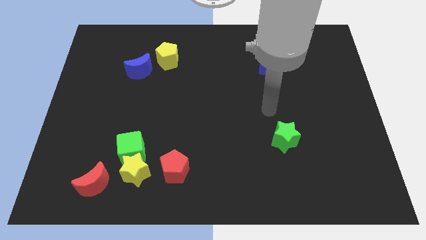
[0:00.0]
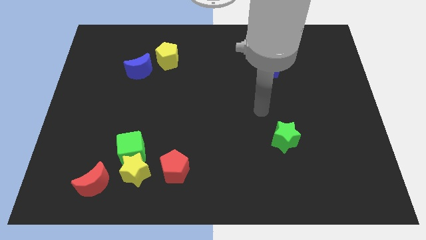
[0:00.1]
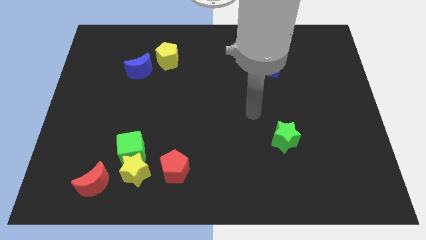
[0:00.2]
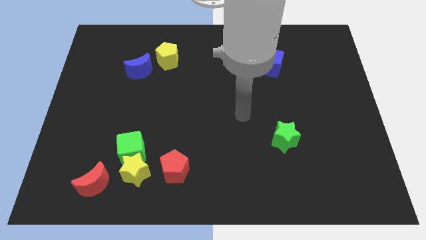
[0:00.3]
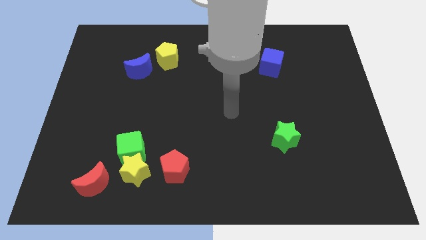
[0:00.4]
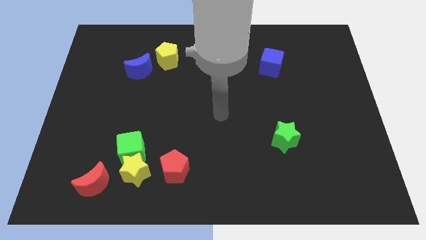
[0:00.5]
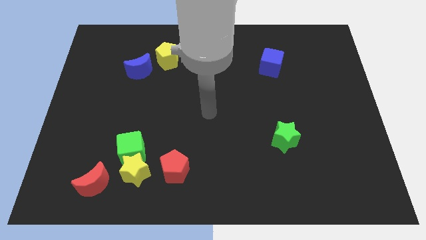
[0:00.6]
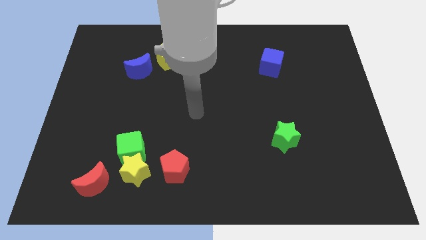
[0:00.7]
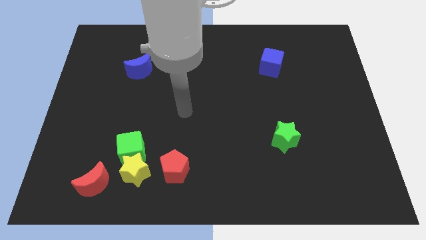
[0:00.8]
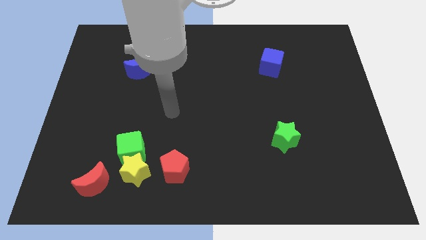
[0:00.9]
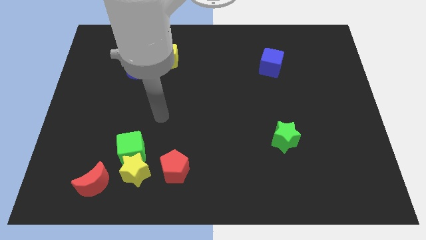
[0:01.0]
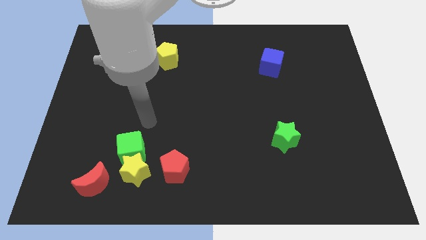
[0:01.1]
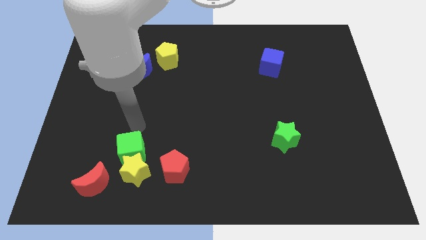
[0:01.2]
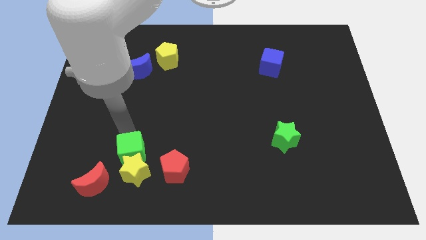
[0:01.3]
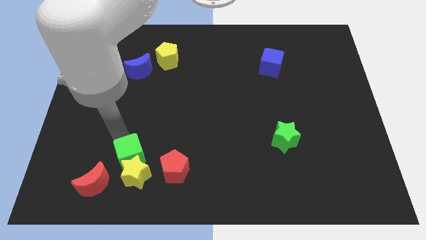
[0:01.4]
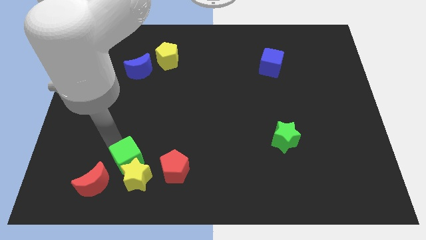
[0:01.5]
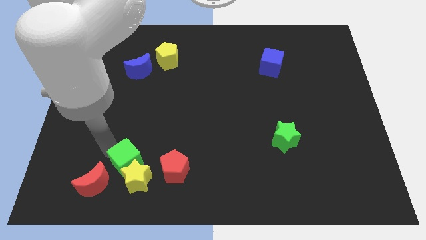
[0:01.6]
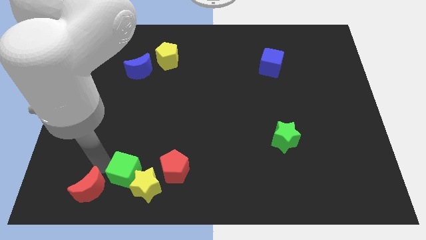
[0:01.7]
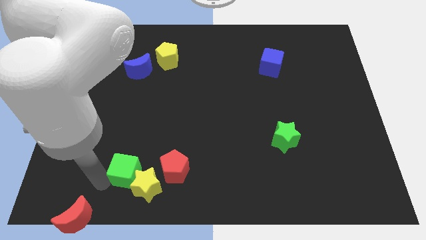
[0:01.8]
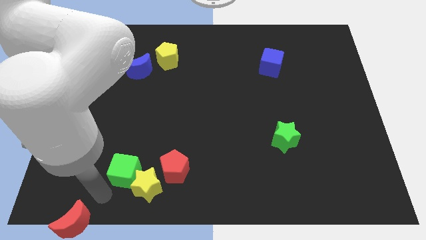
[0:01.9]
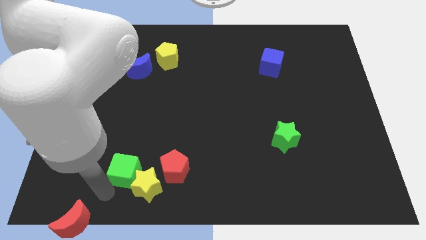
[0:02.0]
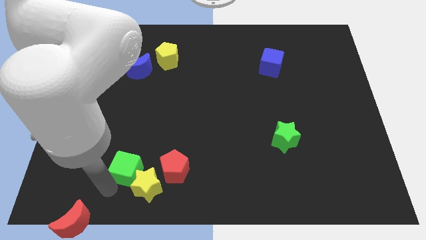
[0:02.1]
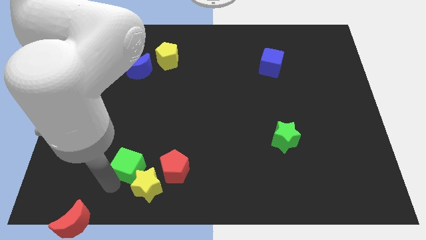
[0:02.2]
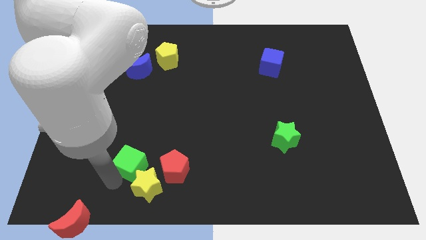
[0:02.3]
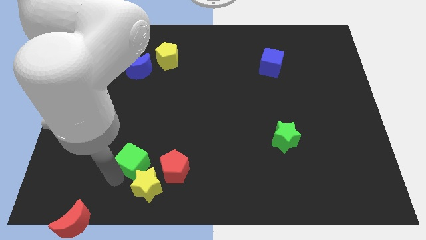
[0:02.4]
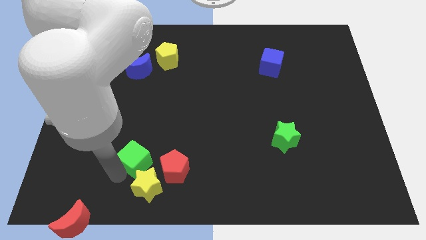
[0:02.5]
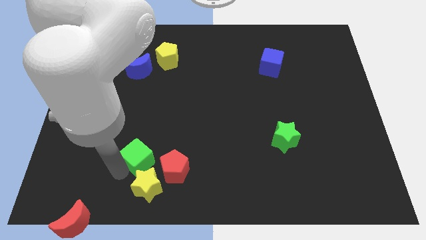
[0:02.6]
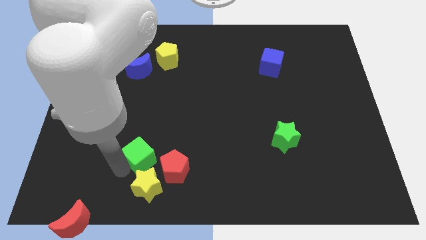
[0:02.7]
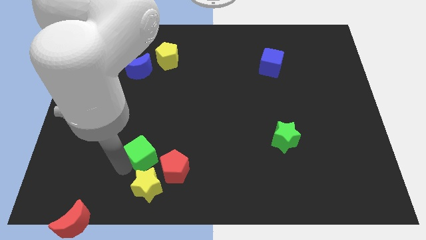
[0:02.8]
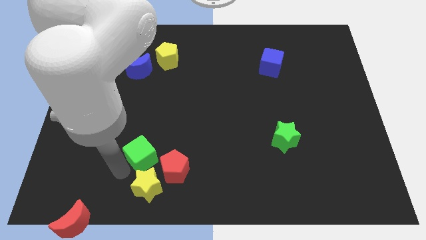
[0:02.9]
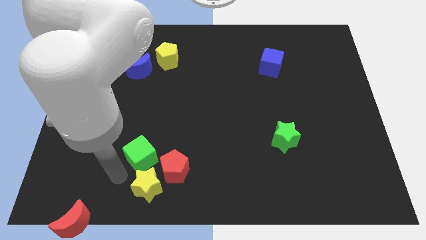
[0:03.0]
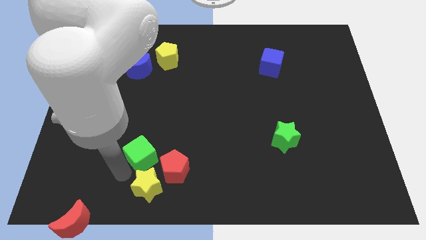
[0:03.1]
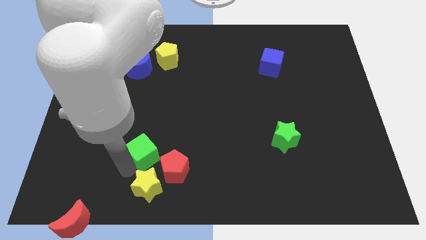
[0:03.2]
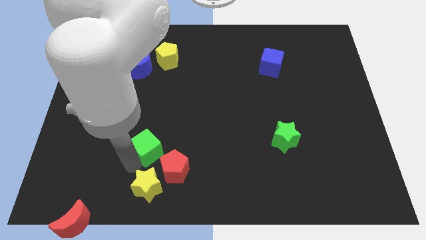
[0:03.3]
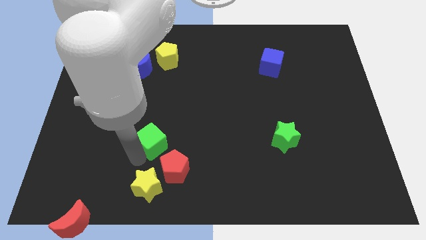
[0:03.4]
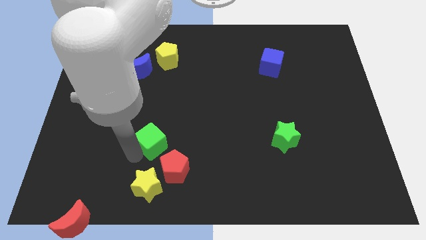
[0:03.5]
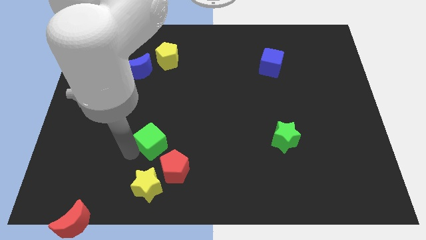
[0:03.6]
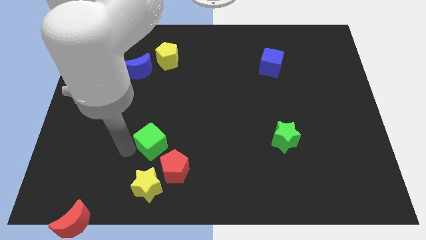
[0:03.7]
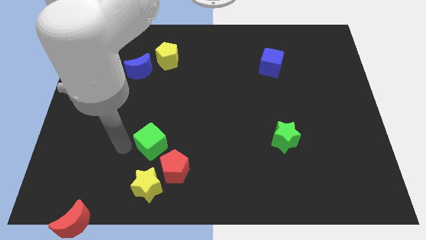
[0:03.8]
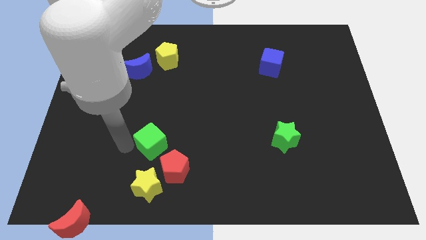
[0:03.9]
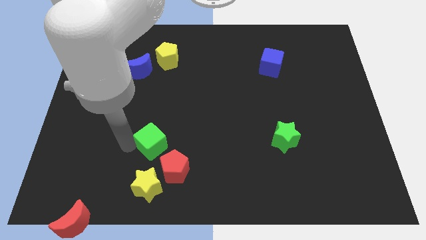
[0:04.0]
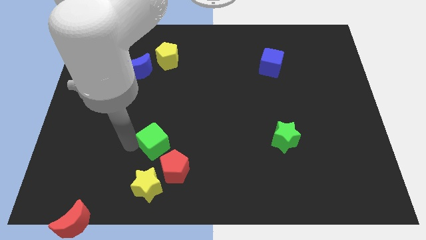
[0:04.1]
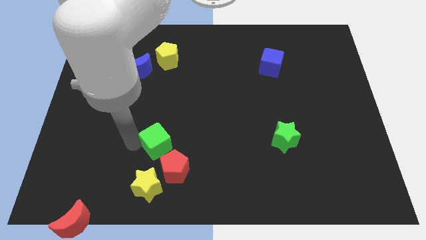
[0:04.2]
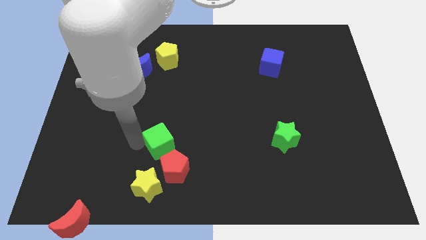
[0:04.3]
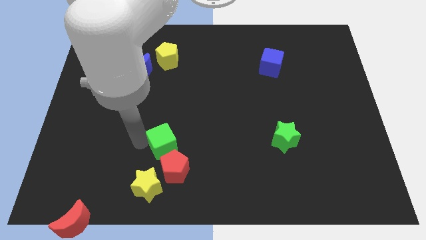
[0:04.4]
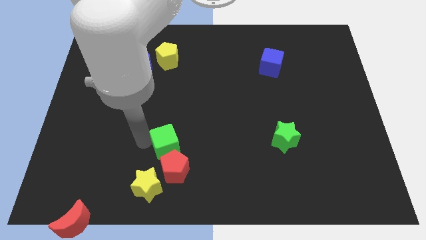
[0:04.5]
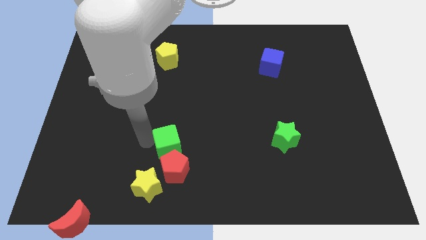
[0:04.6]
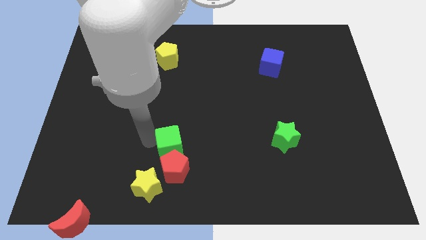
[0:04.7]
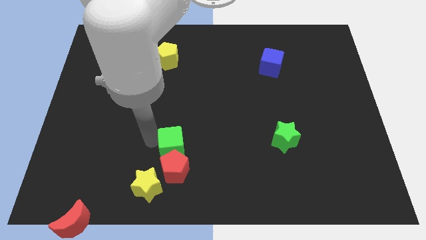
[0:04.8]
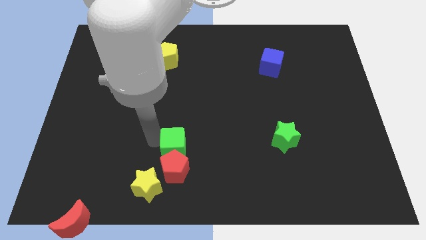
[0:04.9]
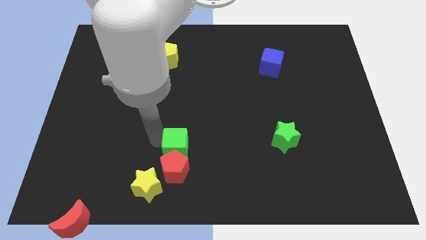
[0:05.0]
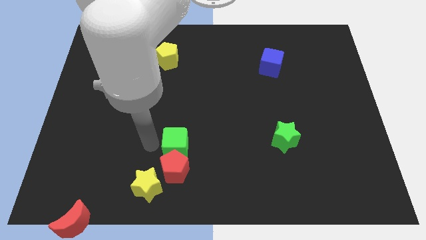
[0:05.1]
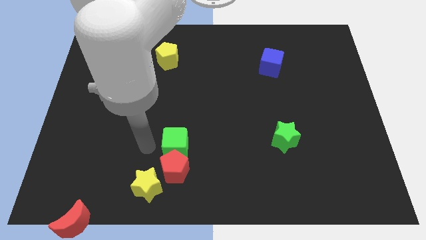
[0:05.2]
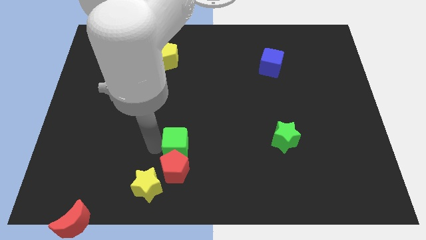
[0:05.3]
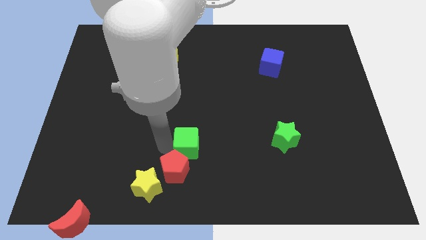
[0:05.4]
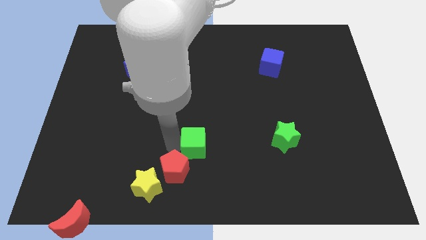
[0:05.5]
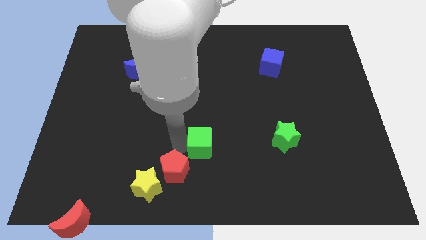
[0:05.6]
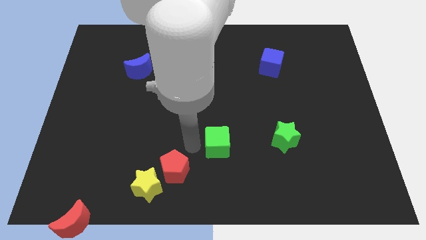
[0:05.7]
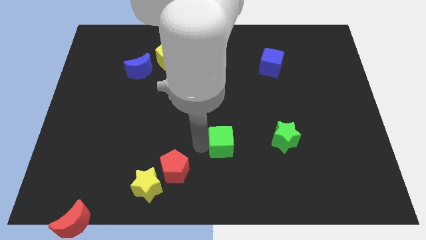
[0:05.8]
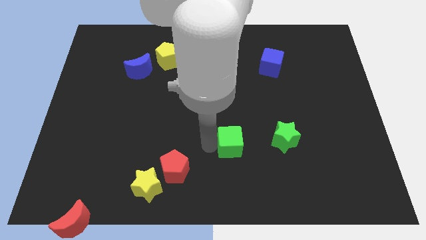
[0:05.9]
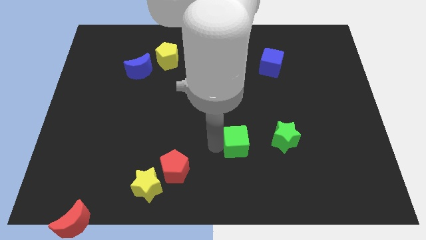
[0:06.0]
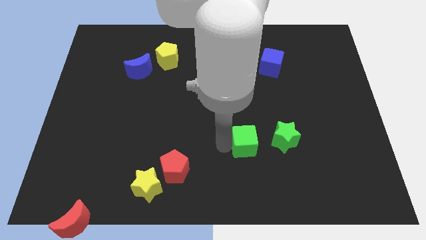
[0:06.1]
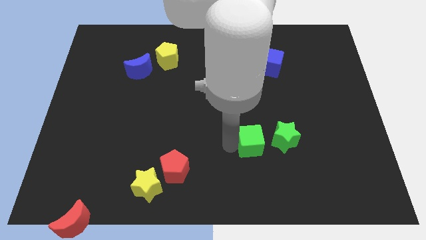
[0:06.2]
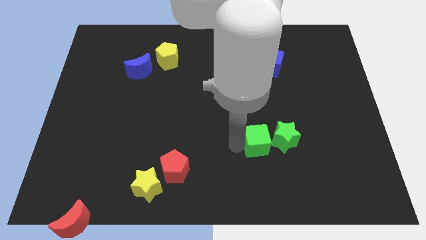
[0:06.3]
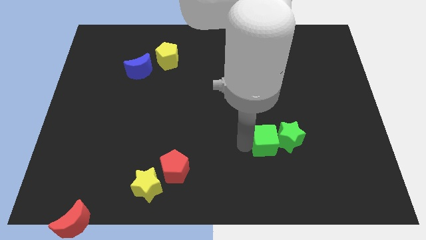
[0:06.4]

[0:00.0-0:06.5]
move the green cube next to the green star

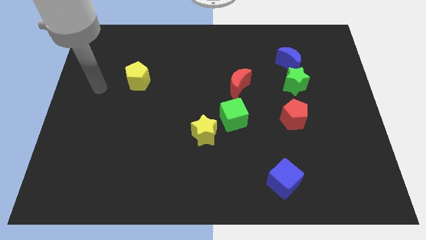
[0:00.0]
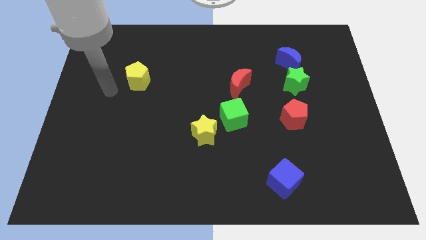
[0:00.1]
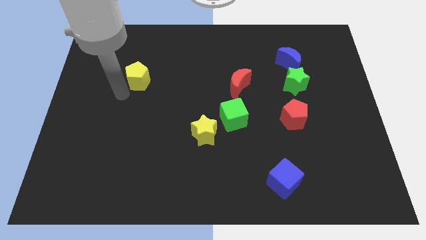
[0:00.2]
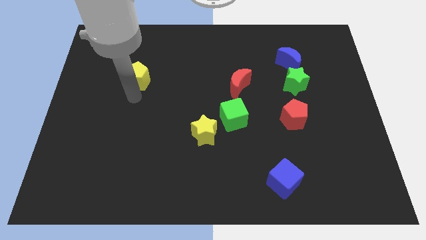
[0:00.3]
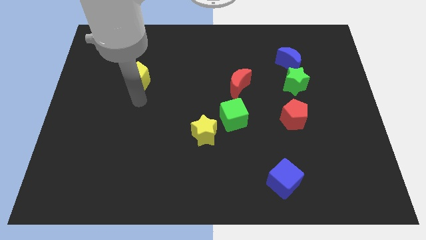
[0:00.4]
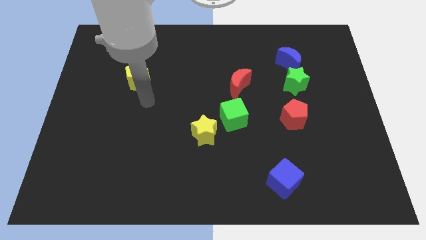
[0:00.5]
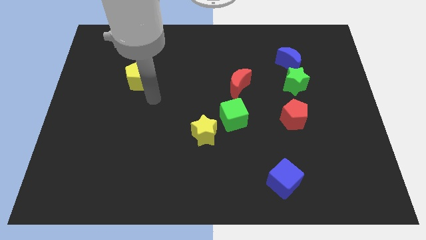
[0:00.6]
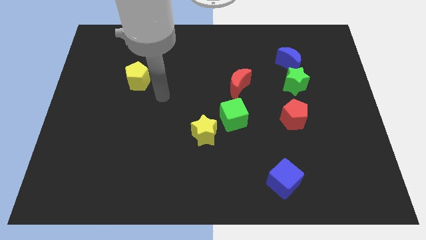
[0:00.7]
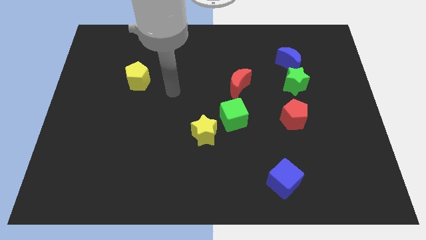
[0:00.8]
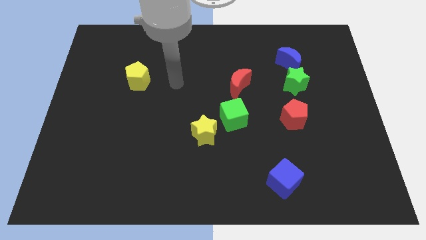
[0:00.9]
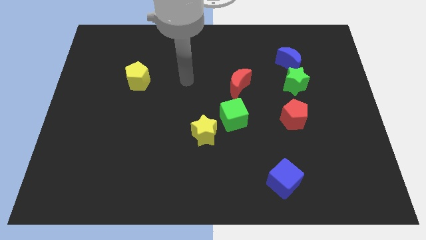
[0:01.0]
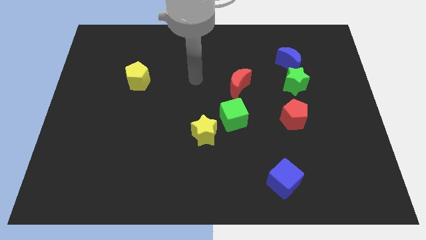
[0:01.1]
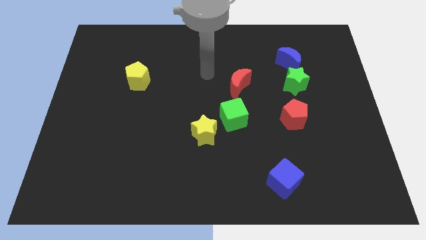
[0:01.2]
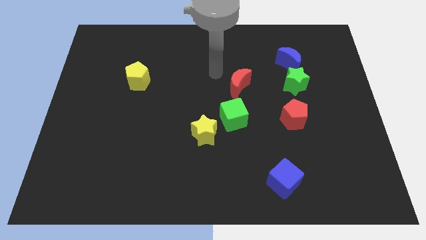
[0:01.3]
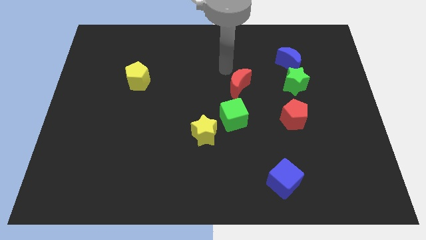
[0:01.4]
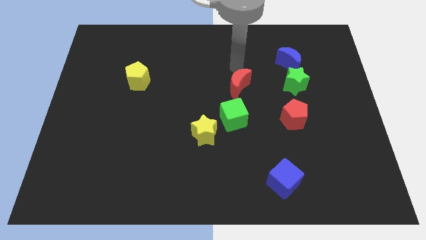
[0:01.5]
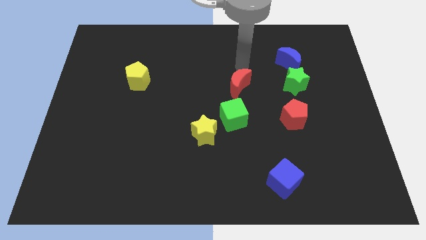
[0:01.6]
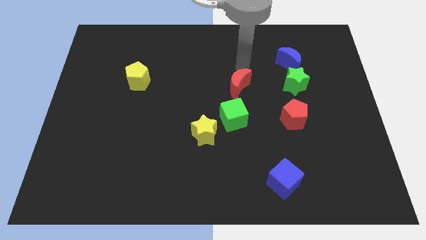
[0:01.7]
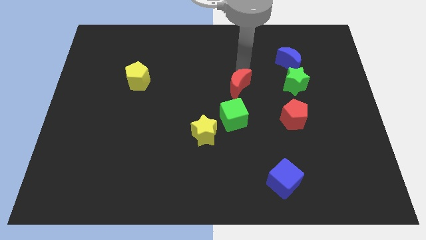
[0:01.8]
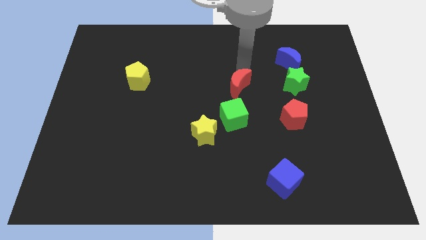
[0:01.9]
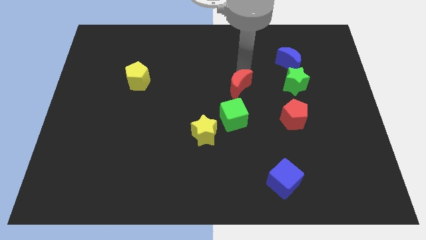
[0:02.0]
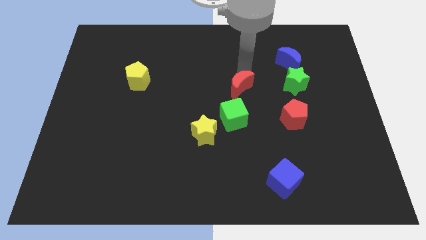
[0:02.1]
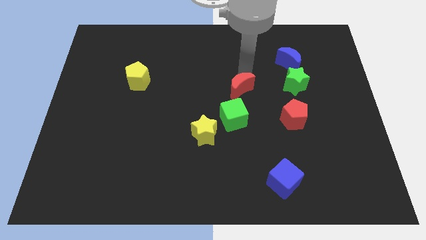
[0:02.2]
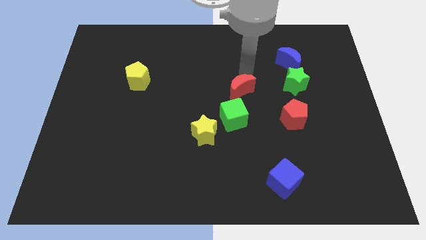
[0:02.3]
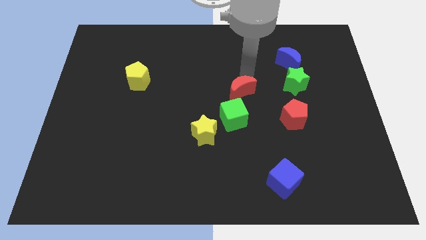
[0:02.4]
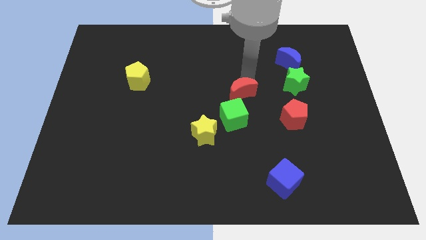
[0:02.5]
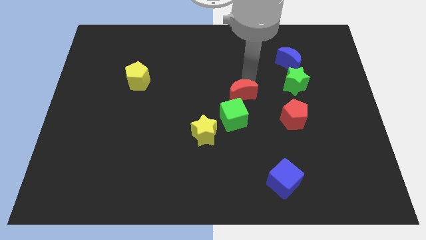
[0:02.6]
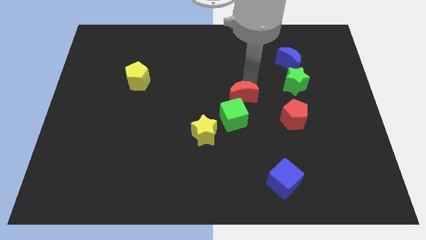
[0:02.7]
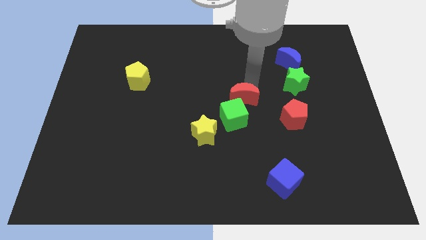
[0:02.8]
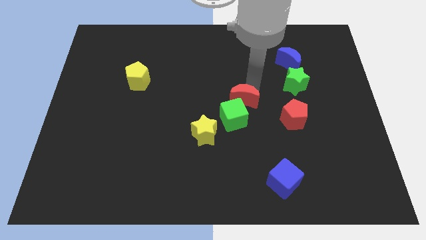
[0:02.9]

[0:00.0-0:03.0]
move the red moon towards the green cube
